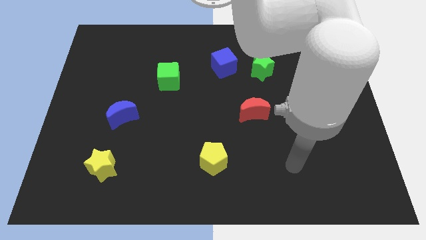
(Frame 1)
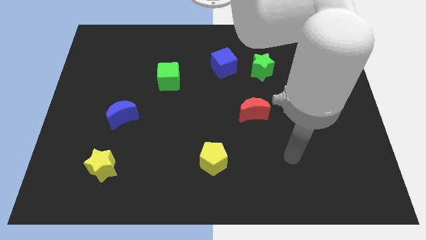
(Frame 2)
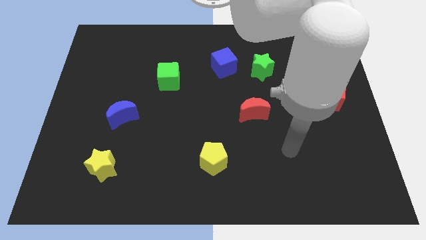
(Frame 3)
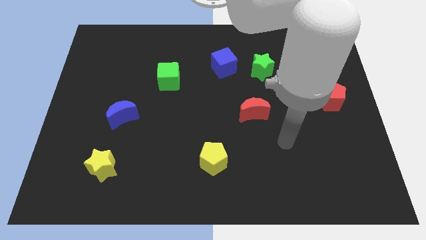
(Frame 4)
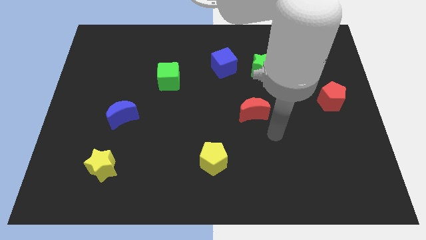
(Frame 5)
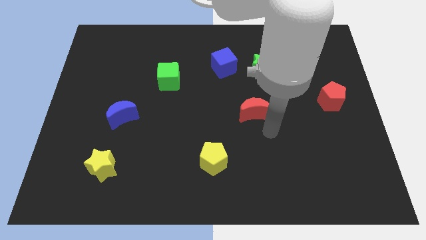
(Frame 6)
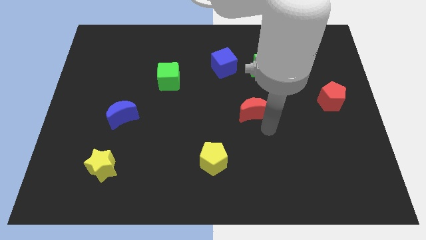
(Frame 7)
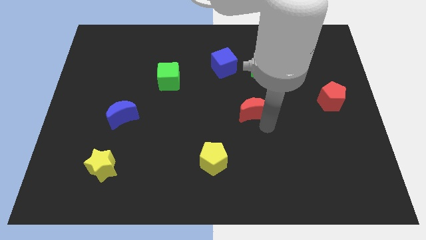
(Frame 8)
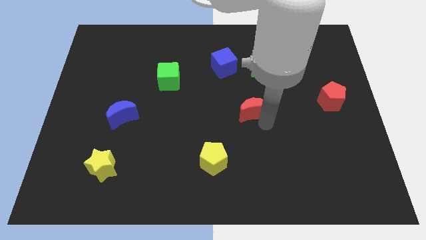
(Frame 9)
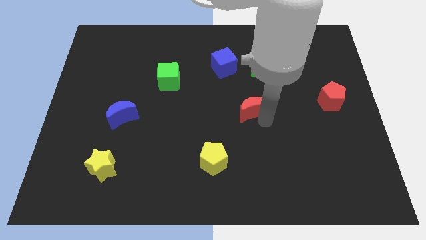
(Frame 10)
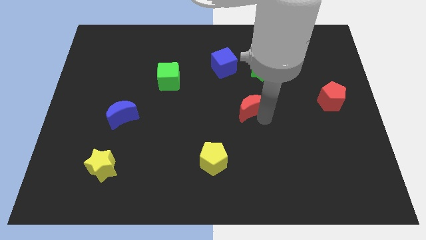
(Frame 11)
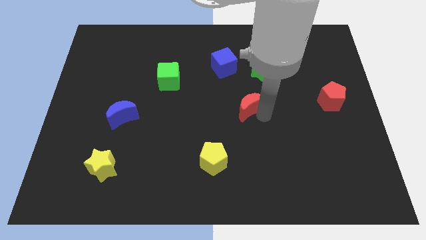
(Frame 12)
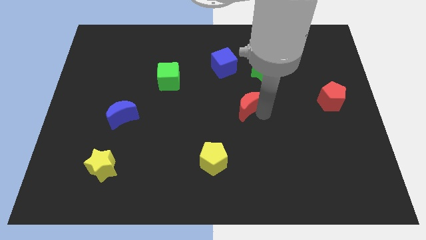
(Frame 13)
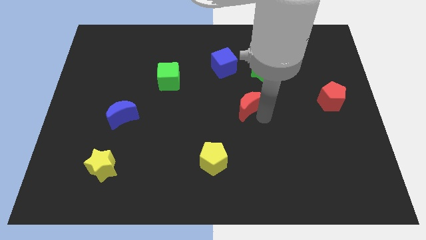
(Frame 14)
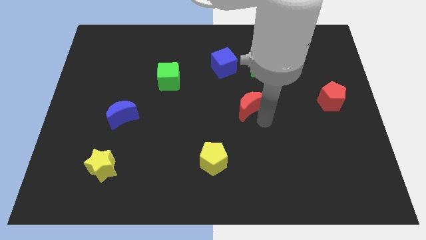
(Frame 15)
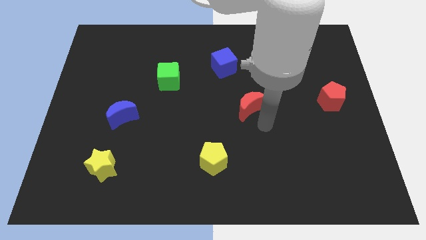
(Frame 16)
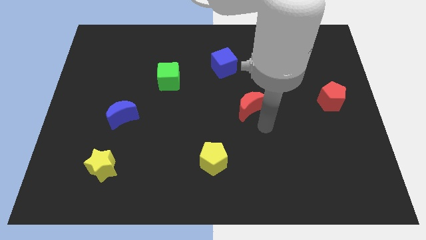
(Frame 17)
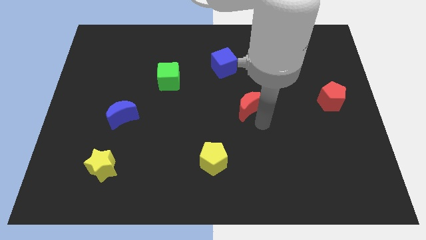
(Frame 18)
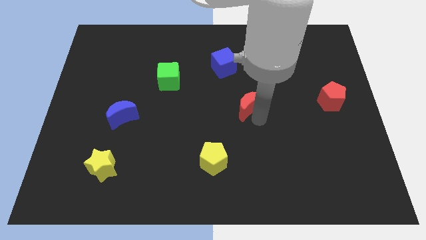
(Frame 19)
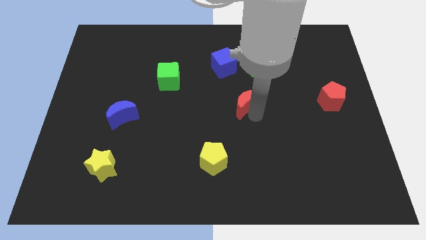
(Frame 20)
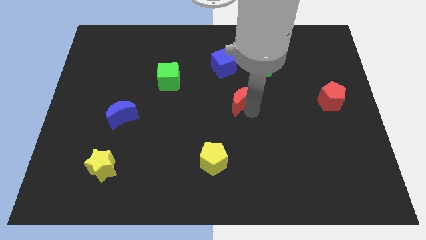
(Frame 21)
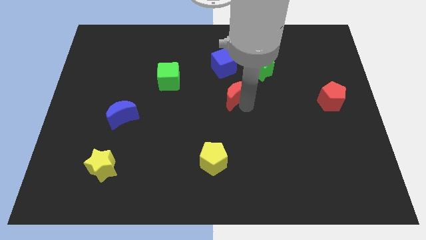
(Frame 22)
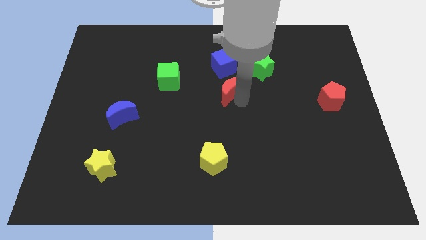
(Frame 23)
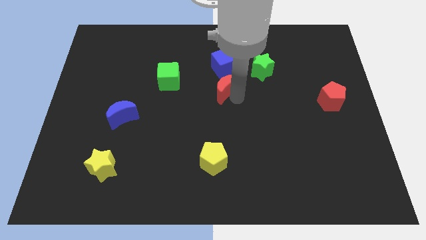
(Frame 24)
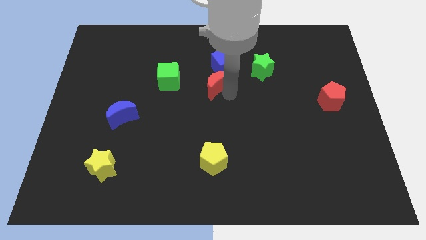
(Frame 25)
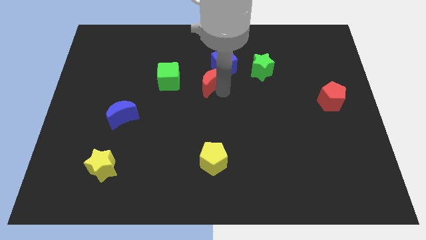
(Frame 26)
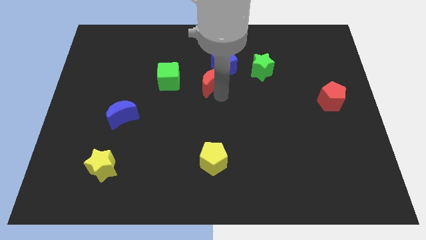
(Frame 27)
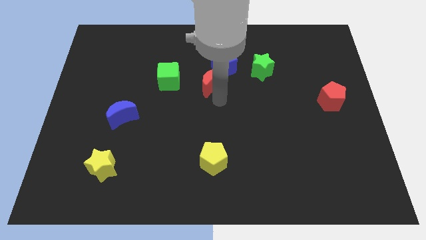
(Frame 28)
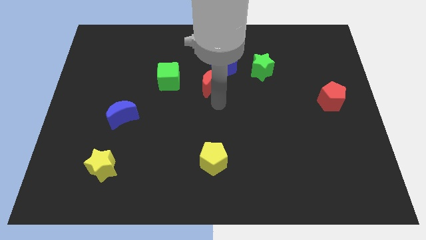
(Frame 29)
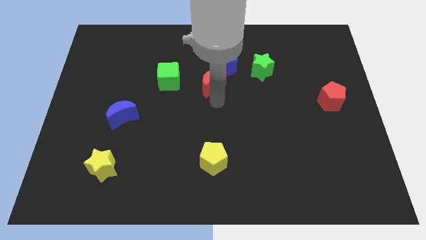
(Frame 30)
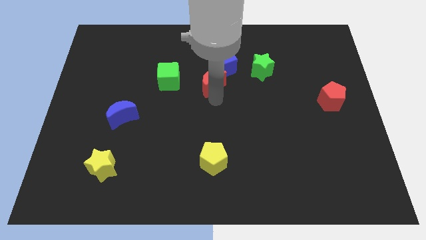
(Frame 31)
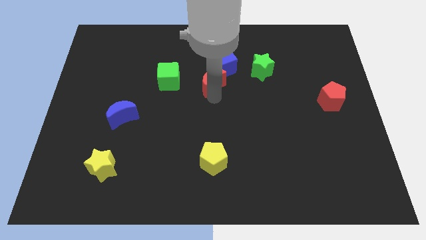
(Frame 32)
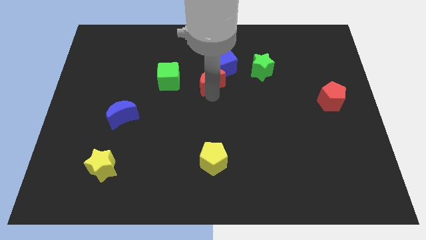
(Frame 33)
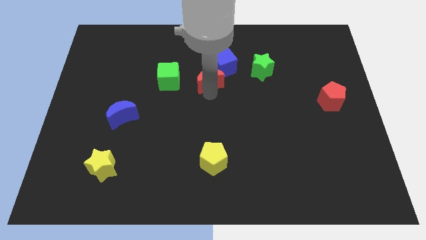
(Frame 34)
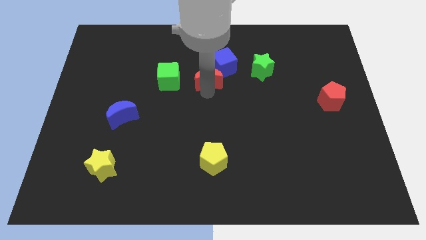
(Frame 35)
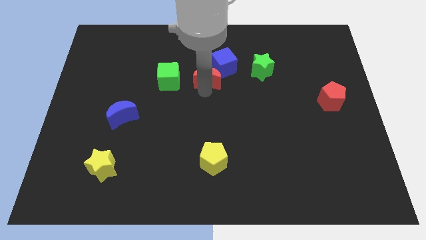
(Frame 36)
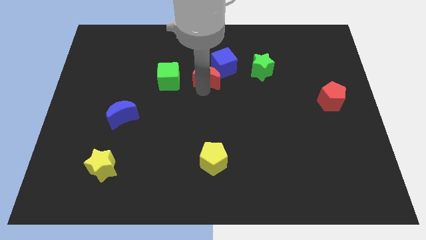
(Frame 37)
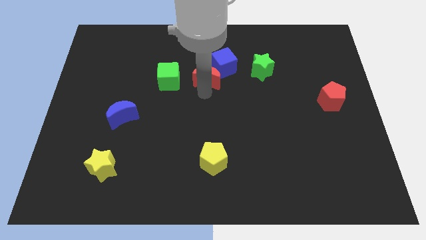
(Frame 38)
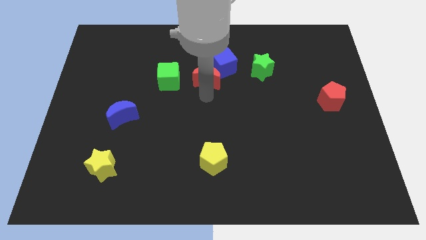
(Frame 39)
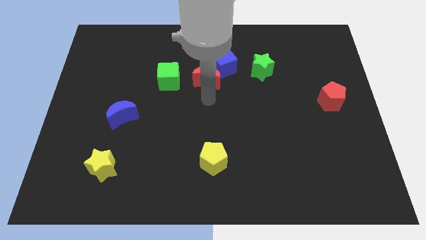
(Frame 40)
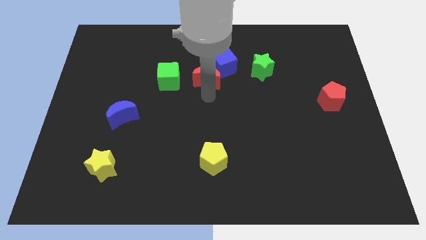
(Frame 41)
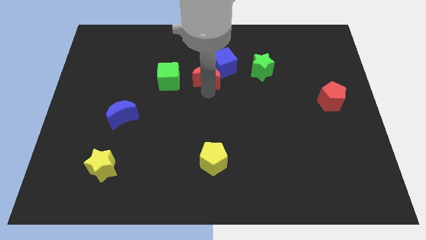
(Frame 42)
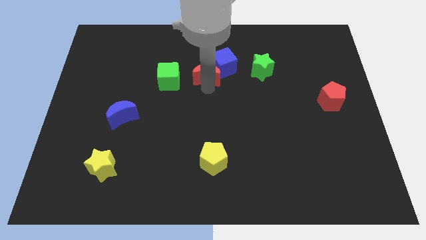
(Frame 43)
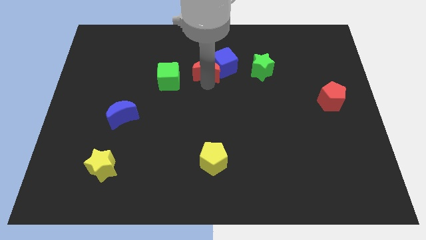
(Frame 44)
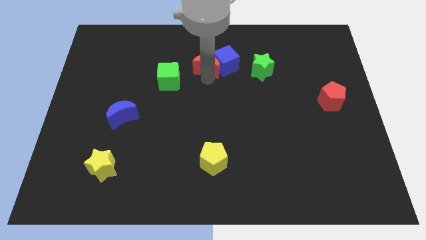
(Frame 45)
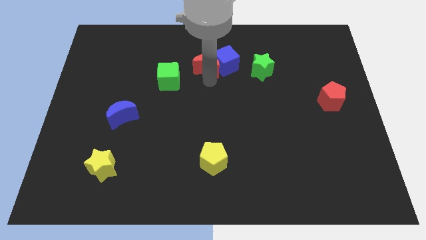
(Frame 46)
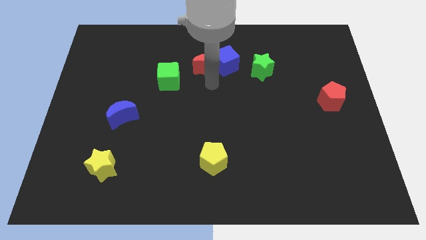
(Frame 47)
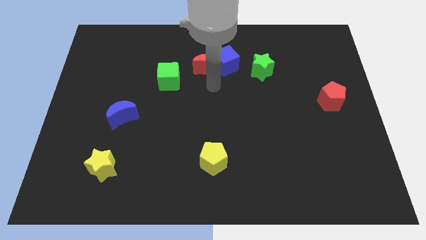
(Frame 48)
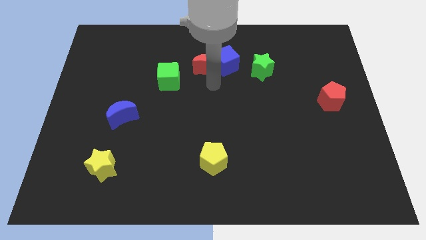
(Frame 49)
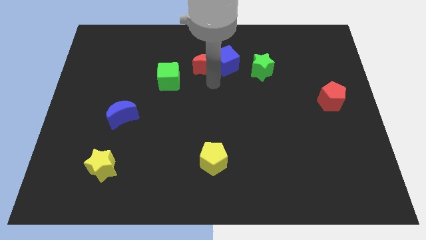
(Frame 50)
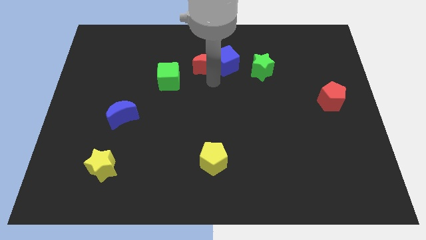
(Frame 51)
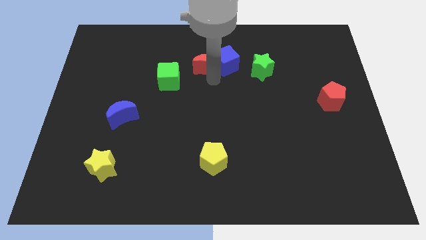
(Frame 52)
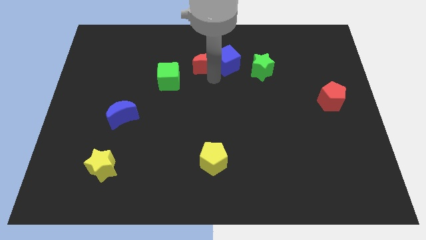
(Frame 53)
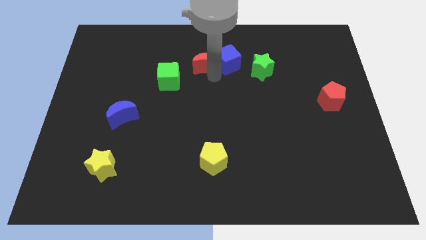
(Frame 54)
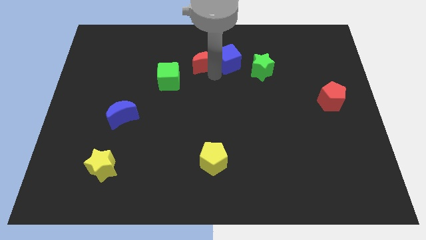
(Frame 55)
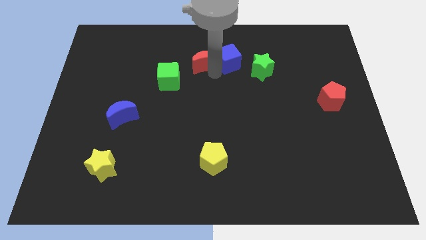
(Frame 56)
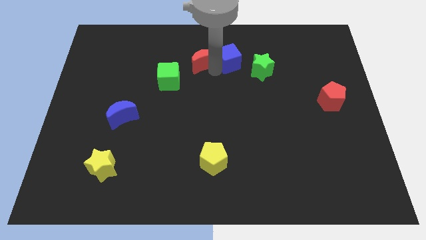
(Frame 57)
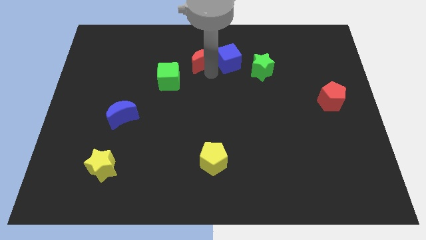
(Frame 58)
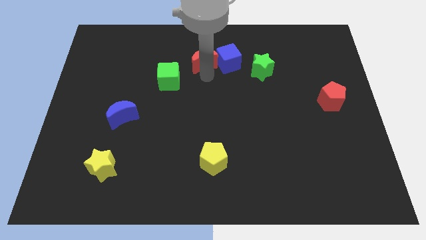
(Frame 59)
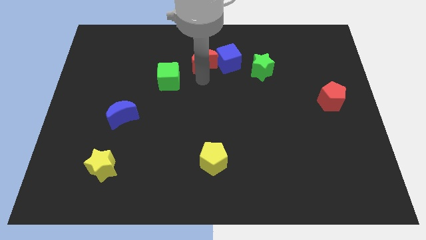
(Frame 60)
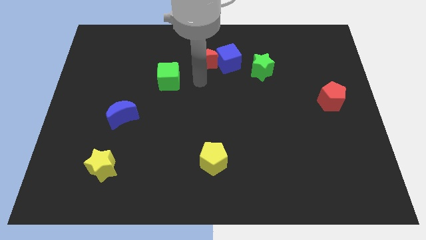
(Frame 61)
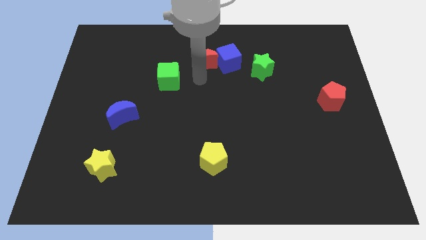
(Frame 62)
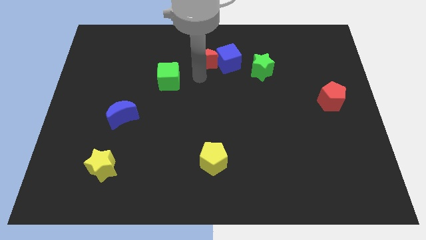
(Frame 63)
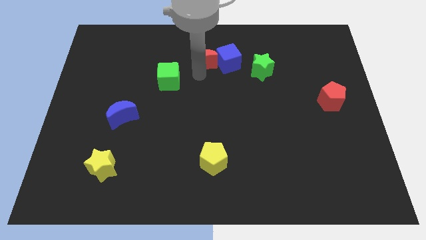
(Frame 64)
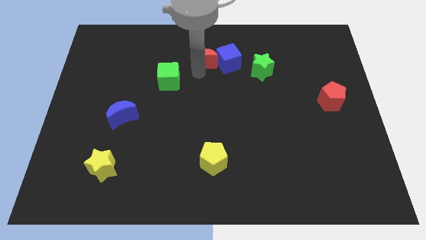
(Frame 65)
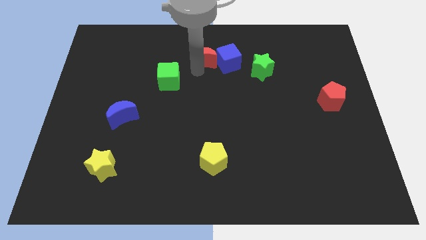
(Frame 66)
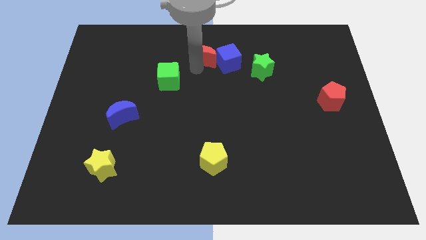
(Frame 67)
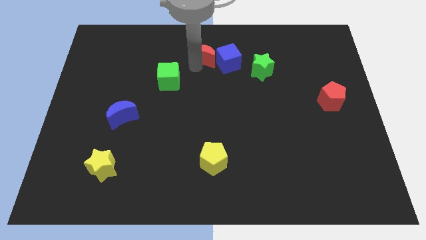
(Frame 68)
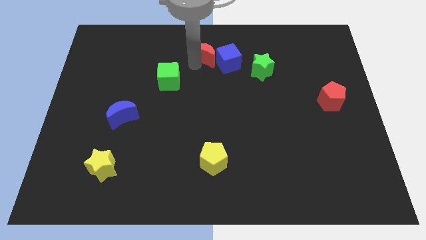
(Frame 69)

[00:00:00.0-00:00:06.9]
push the red moon to the top
